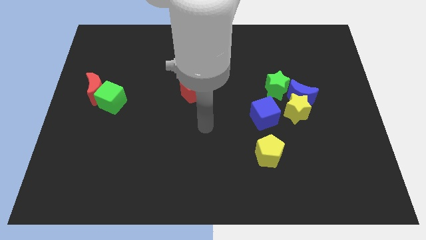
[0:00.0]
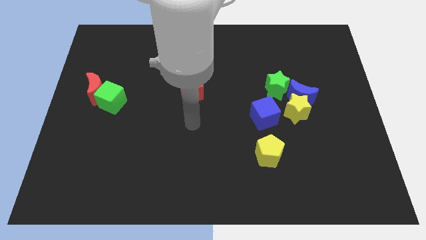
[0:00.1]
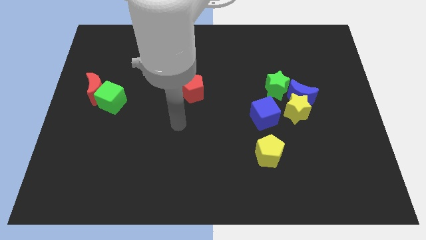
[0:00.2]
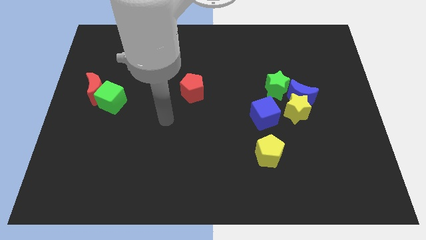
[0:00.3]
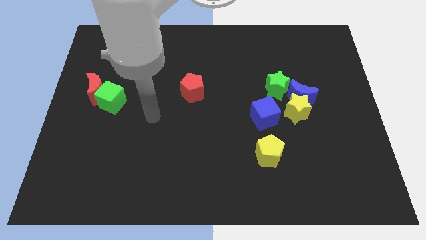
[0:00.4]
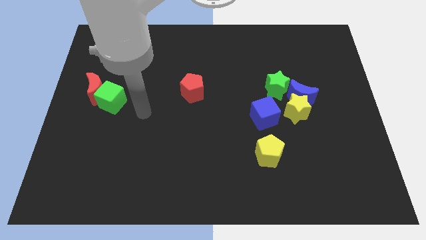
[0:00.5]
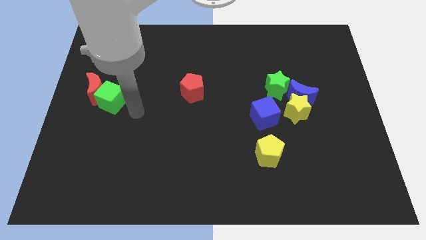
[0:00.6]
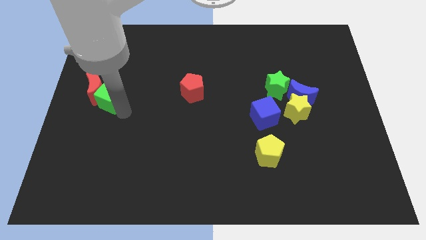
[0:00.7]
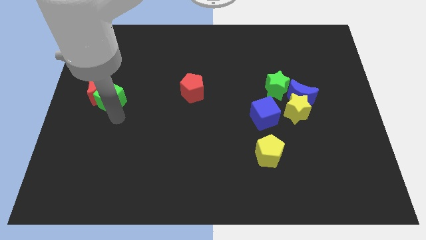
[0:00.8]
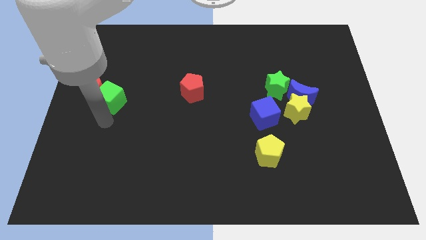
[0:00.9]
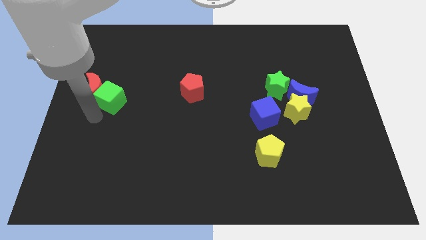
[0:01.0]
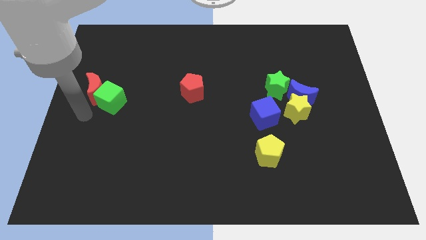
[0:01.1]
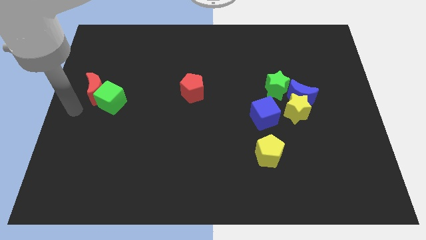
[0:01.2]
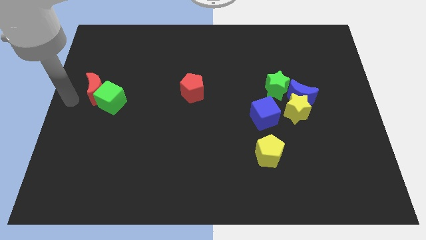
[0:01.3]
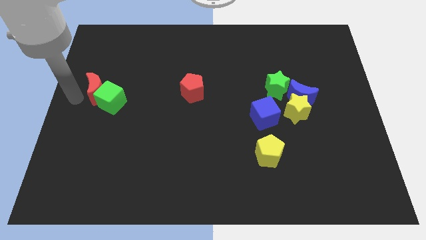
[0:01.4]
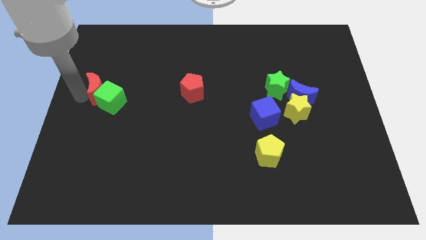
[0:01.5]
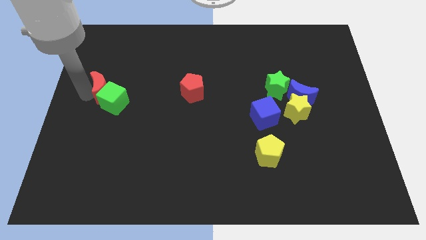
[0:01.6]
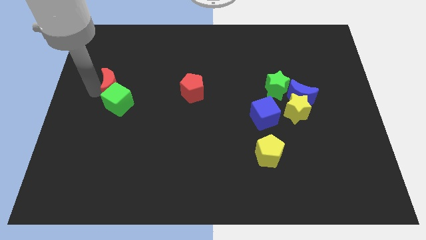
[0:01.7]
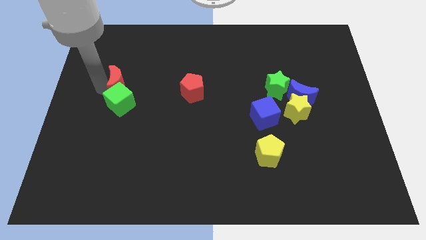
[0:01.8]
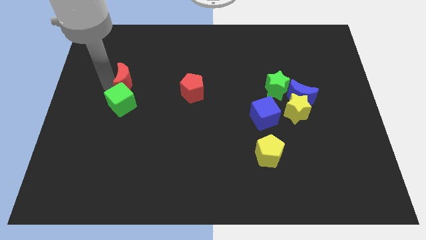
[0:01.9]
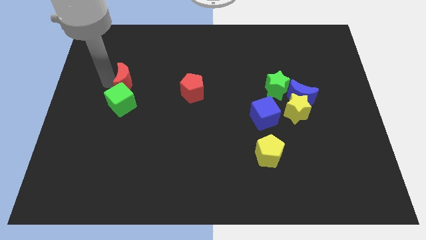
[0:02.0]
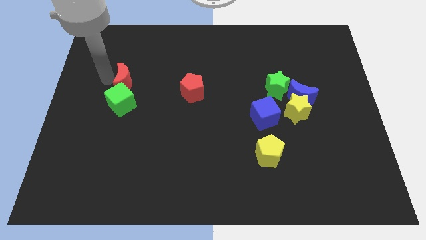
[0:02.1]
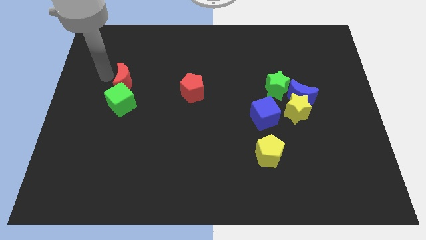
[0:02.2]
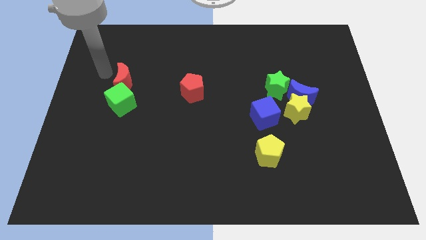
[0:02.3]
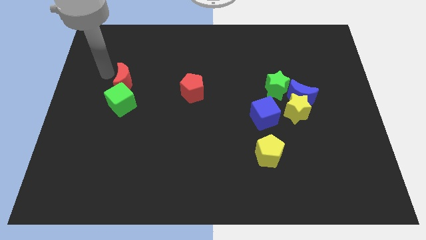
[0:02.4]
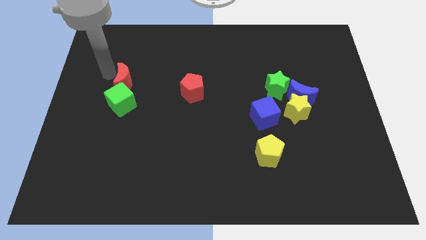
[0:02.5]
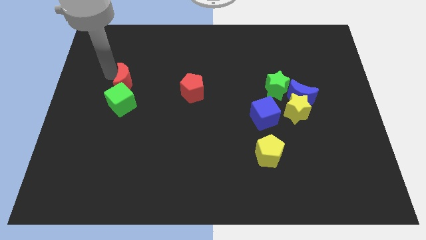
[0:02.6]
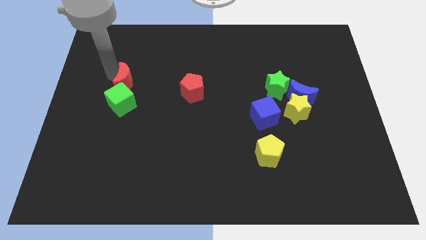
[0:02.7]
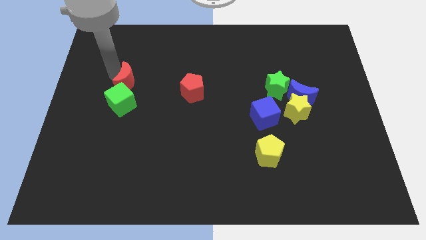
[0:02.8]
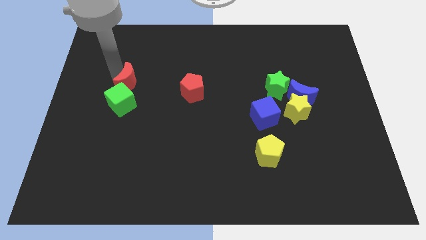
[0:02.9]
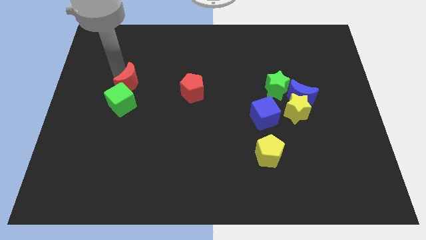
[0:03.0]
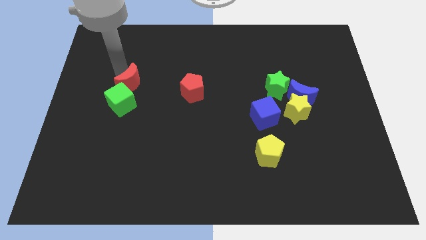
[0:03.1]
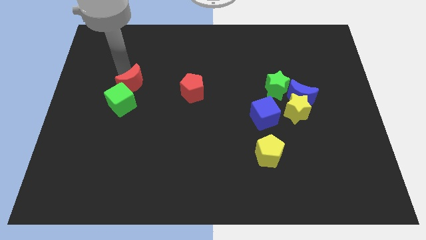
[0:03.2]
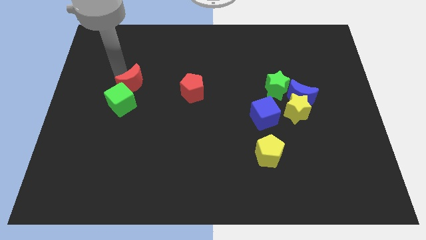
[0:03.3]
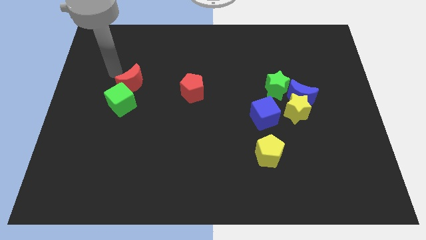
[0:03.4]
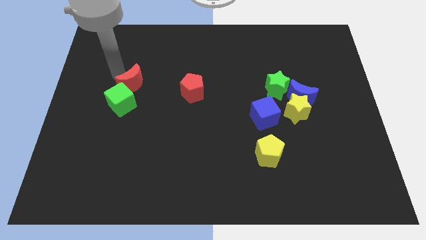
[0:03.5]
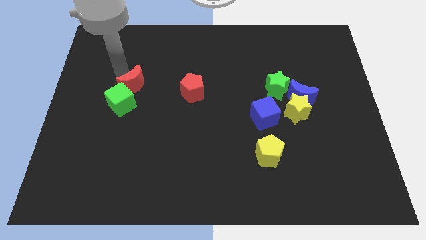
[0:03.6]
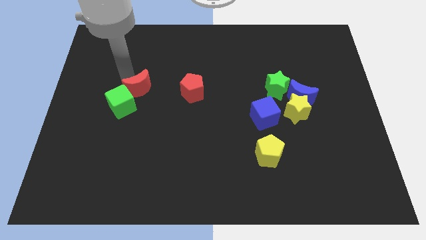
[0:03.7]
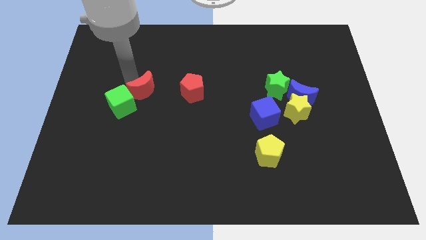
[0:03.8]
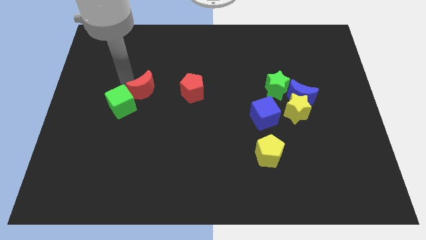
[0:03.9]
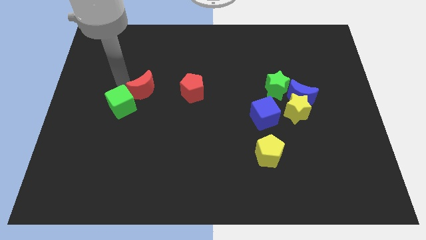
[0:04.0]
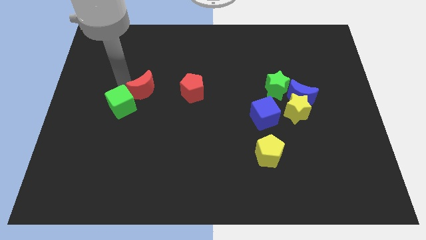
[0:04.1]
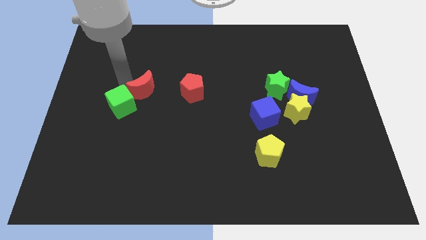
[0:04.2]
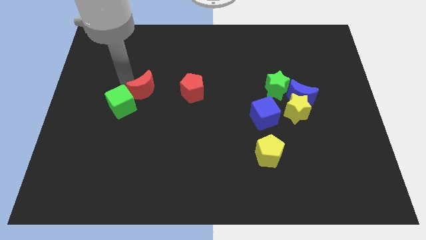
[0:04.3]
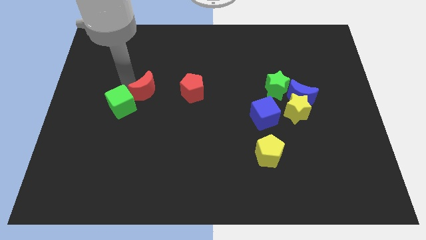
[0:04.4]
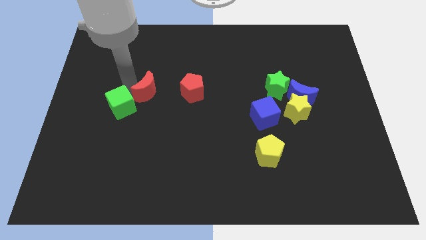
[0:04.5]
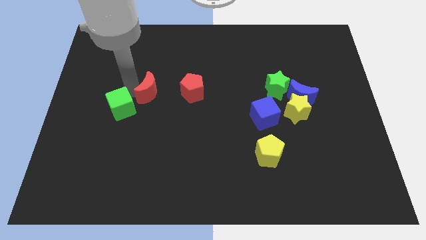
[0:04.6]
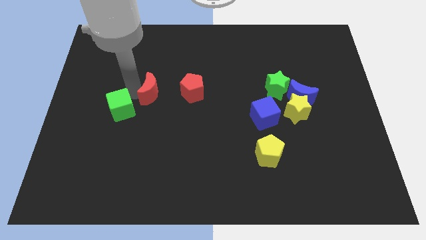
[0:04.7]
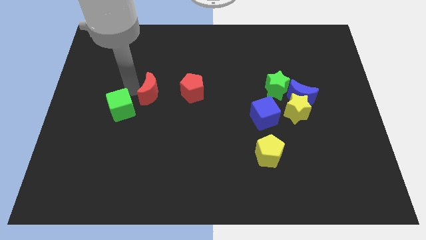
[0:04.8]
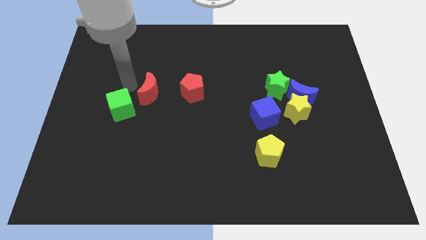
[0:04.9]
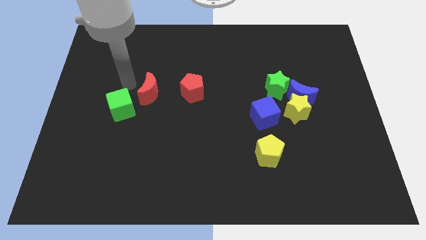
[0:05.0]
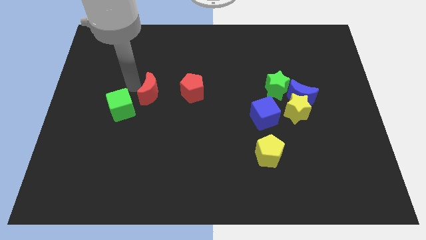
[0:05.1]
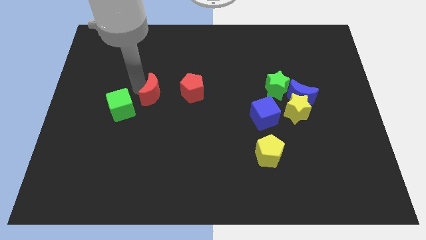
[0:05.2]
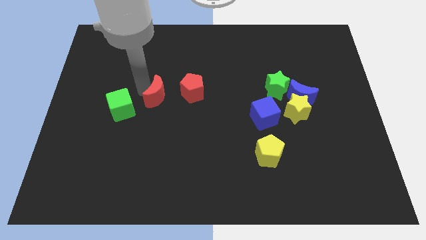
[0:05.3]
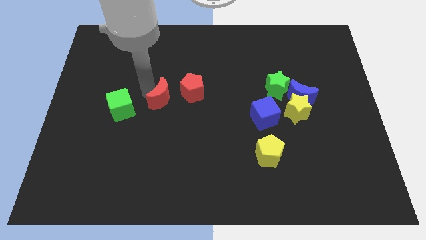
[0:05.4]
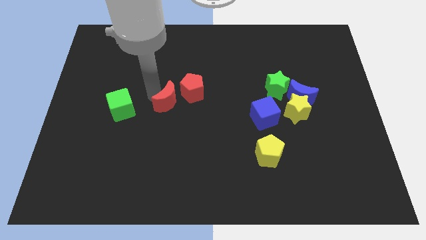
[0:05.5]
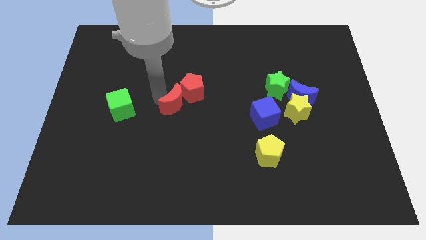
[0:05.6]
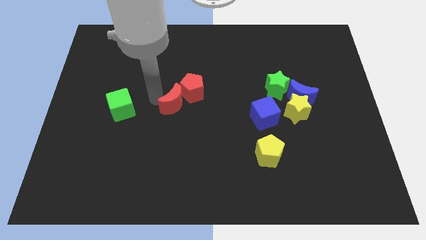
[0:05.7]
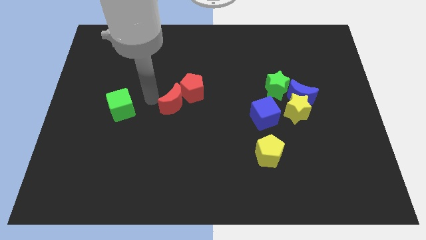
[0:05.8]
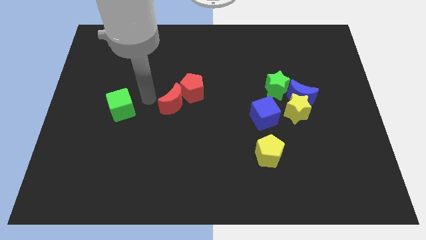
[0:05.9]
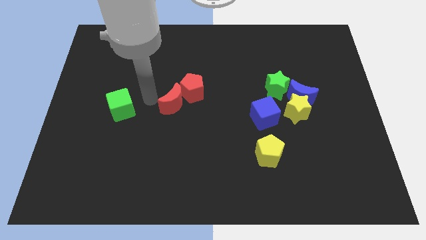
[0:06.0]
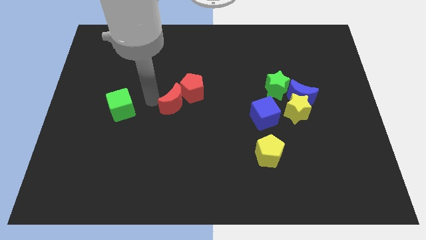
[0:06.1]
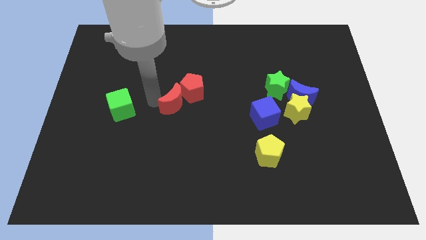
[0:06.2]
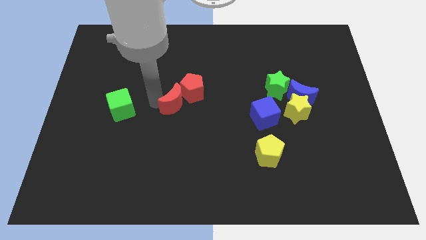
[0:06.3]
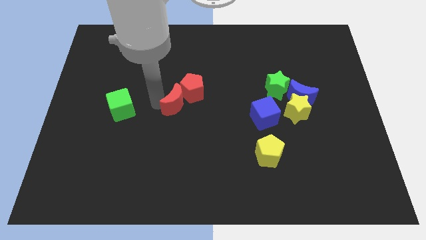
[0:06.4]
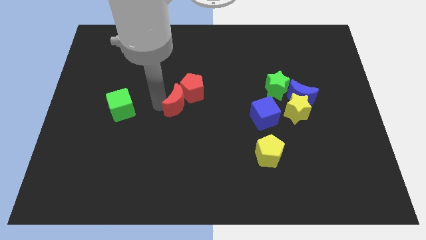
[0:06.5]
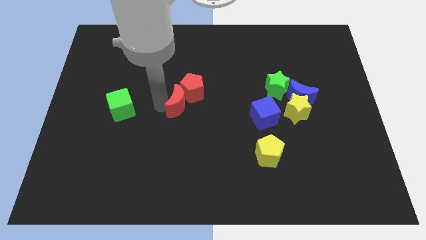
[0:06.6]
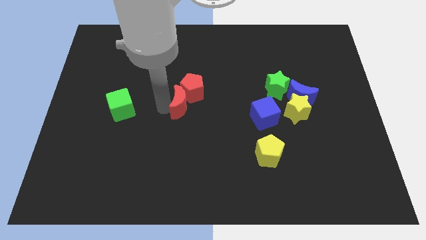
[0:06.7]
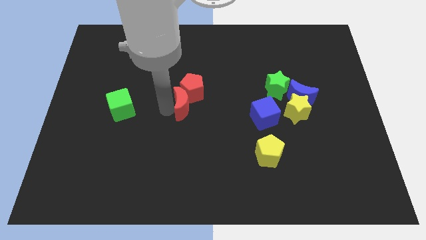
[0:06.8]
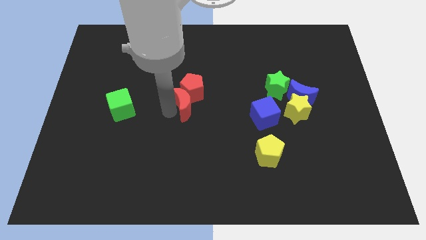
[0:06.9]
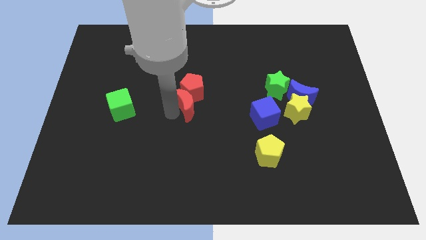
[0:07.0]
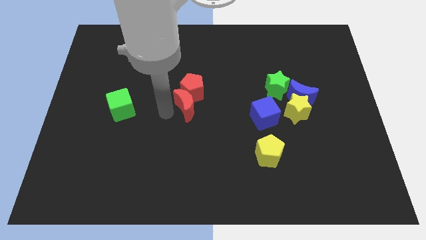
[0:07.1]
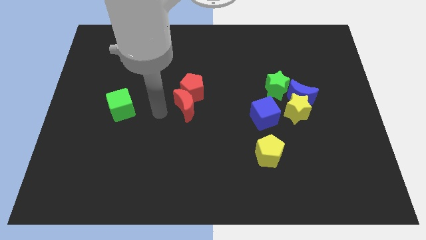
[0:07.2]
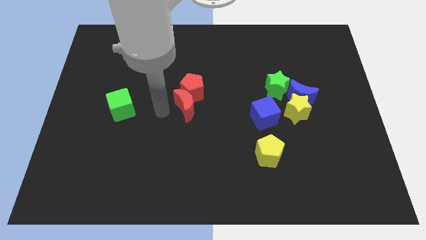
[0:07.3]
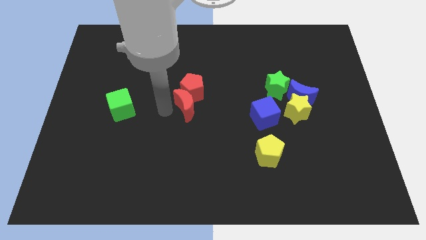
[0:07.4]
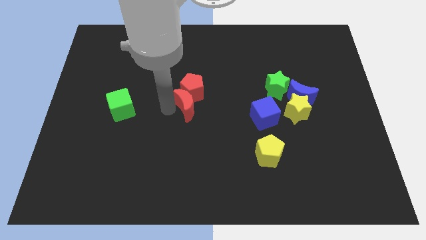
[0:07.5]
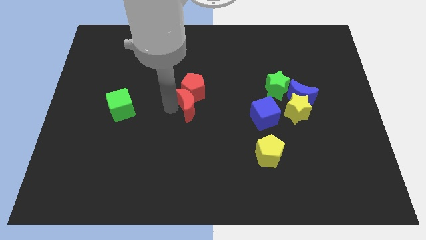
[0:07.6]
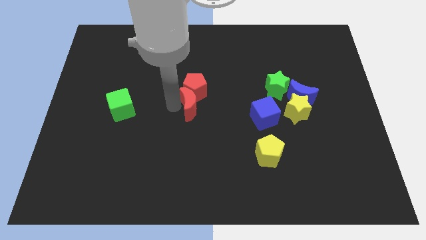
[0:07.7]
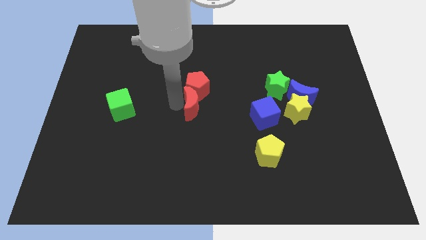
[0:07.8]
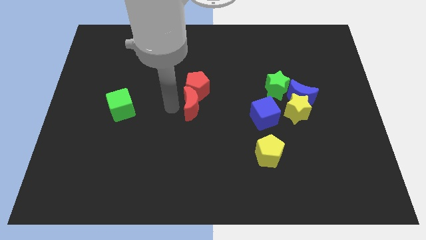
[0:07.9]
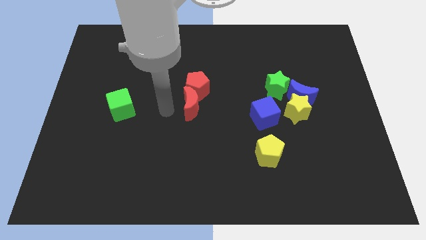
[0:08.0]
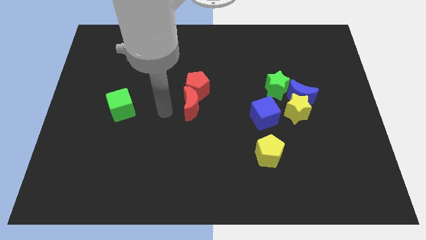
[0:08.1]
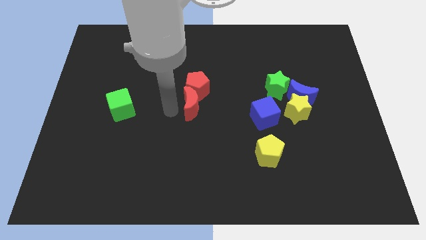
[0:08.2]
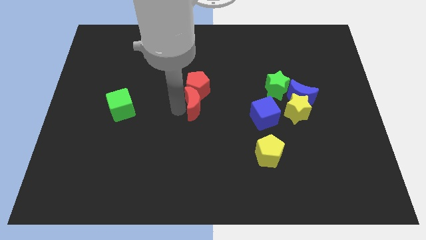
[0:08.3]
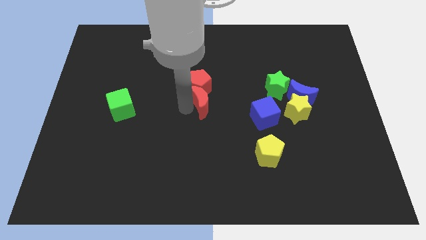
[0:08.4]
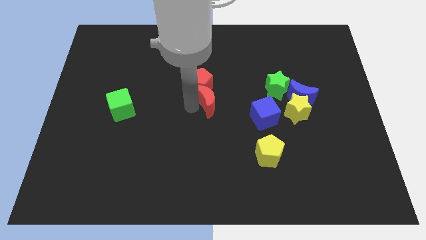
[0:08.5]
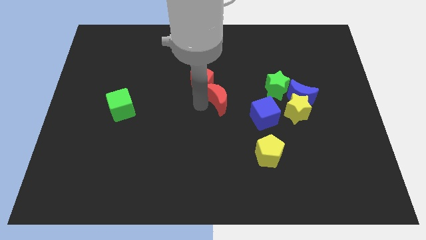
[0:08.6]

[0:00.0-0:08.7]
move the red moon to the top left side of the blue cube
